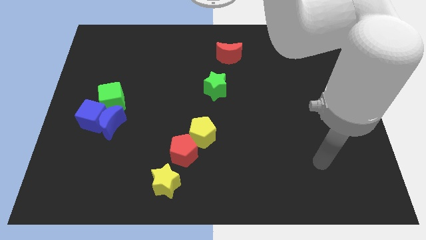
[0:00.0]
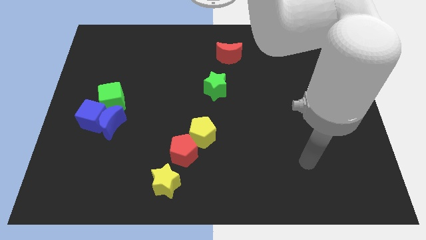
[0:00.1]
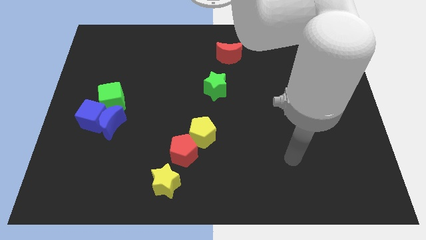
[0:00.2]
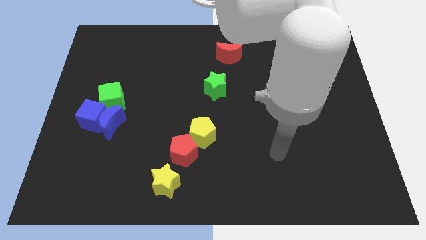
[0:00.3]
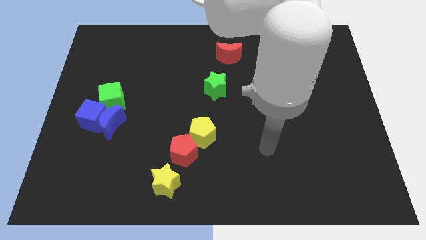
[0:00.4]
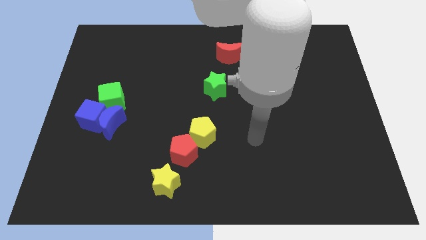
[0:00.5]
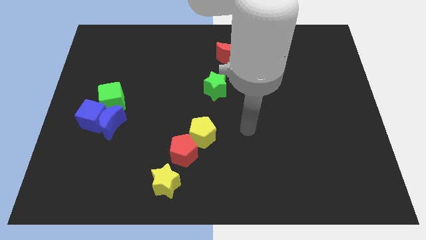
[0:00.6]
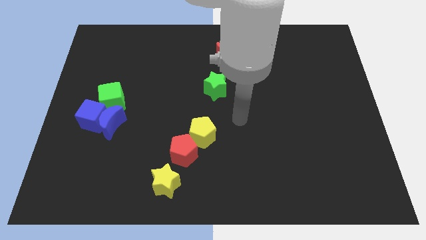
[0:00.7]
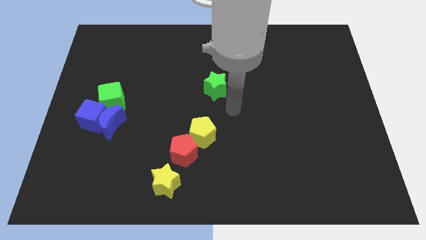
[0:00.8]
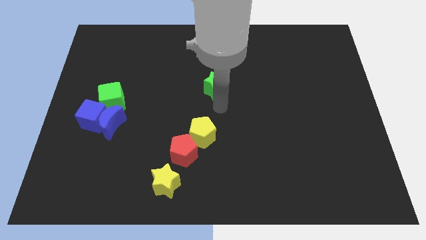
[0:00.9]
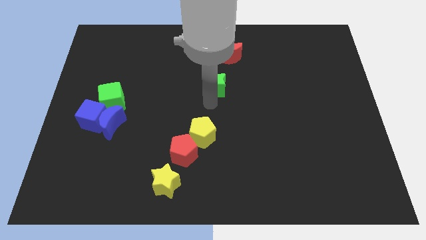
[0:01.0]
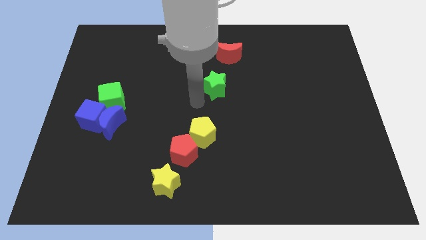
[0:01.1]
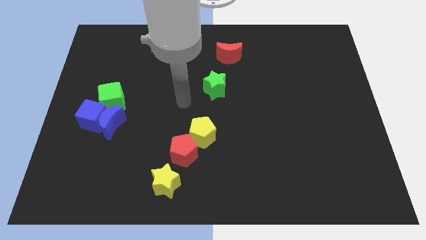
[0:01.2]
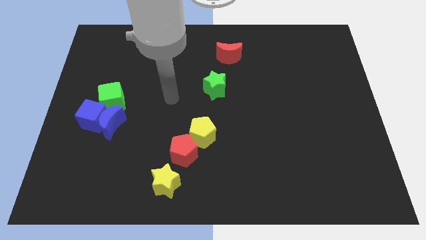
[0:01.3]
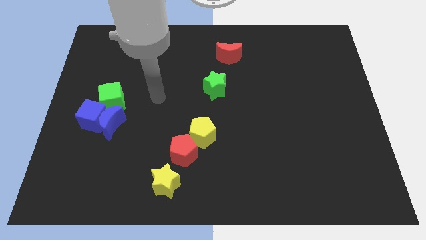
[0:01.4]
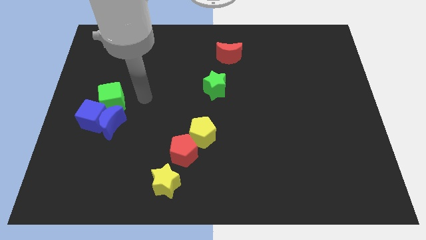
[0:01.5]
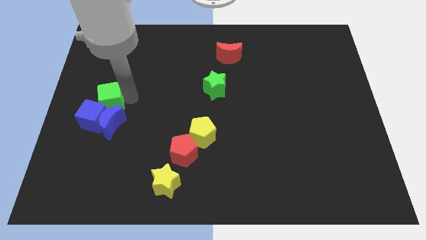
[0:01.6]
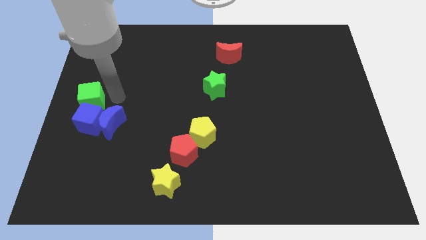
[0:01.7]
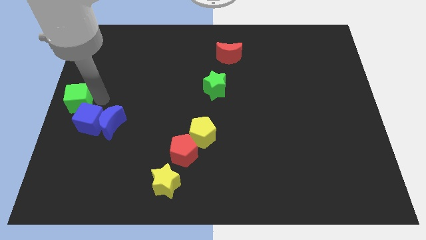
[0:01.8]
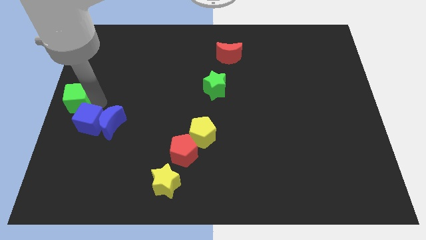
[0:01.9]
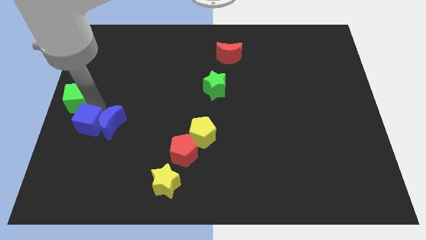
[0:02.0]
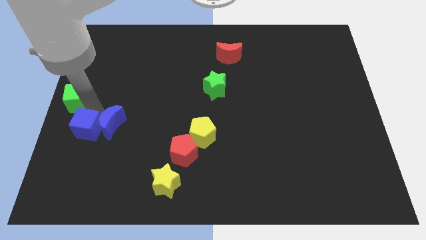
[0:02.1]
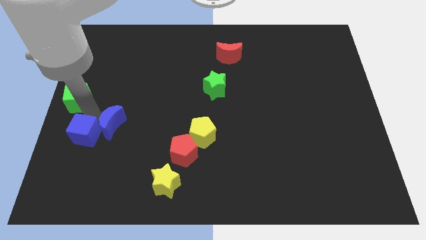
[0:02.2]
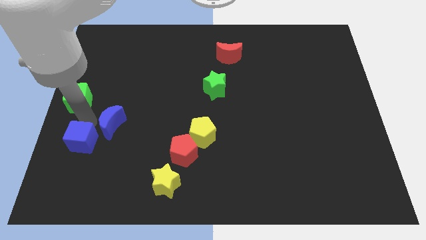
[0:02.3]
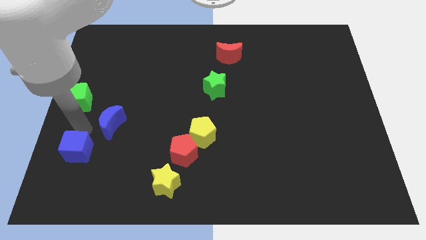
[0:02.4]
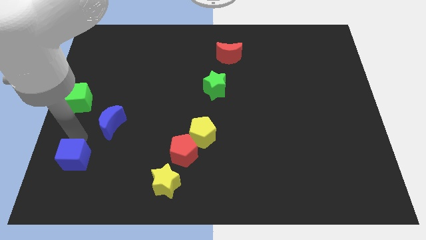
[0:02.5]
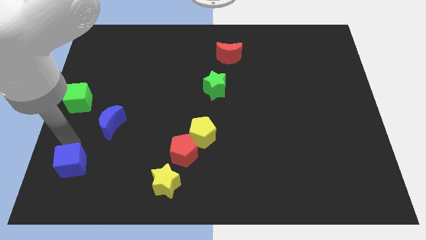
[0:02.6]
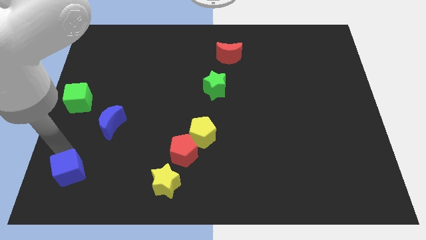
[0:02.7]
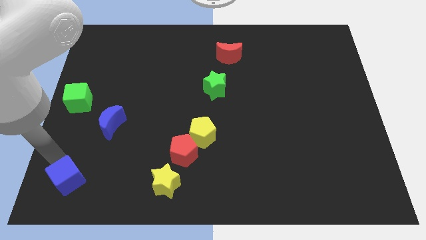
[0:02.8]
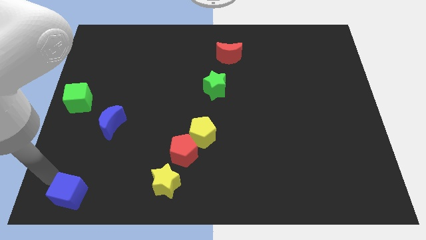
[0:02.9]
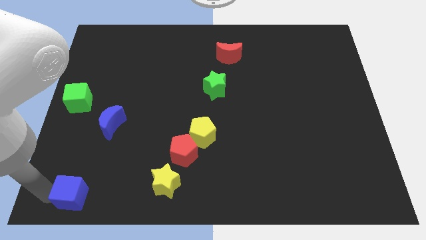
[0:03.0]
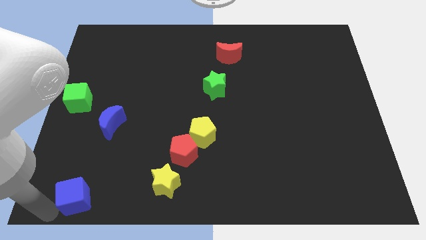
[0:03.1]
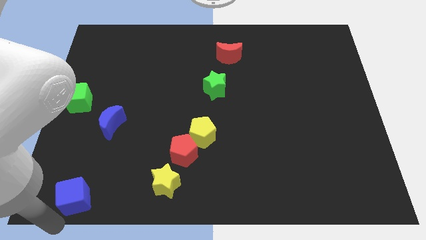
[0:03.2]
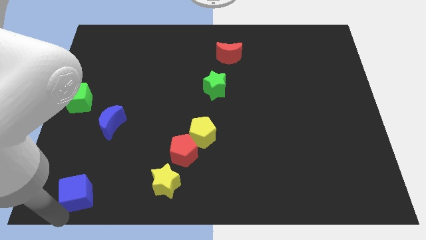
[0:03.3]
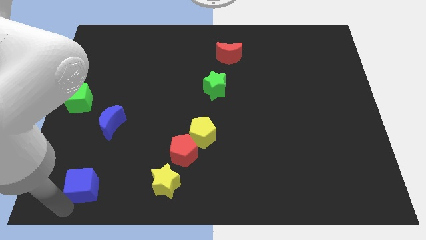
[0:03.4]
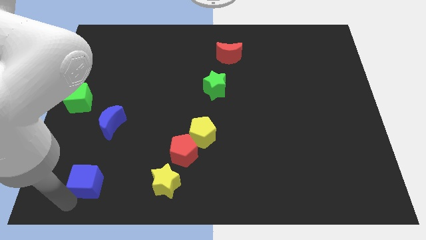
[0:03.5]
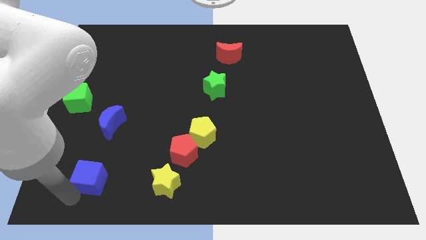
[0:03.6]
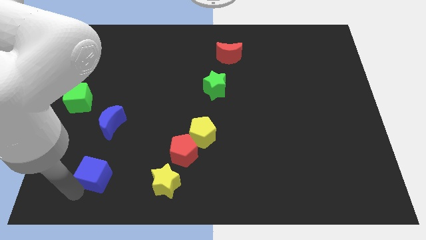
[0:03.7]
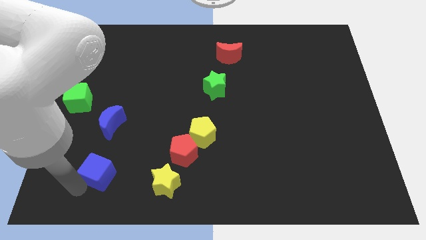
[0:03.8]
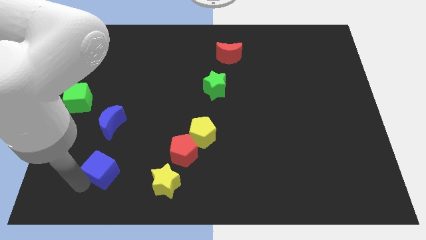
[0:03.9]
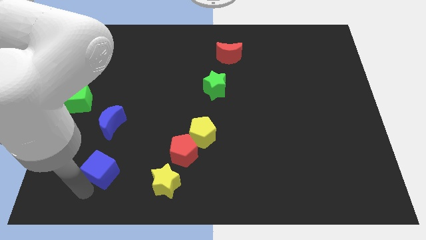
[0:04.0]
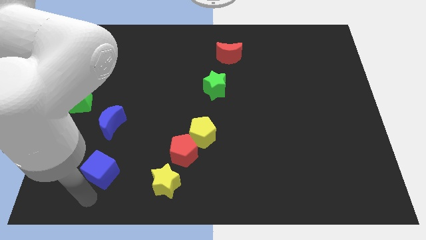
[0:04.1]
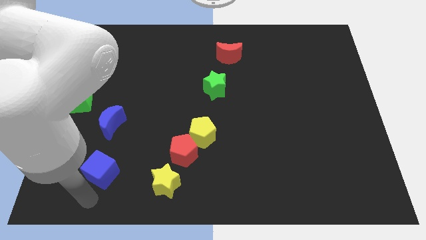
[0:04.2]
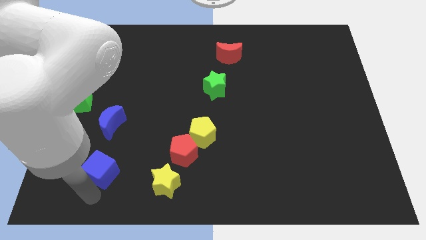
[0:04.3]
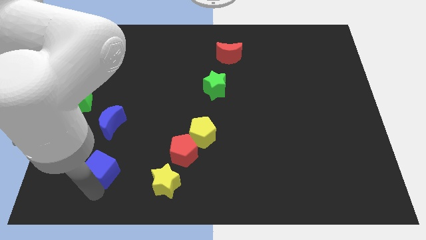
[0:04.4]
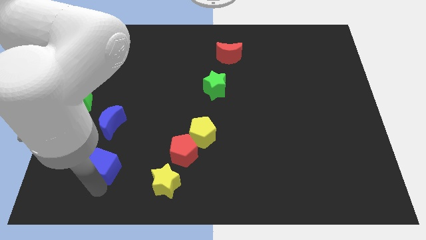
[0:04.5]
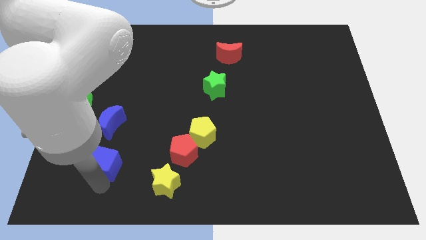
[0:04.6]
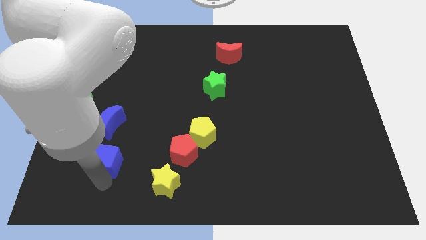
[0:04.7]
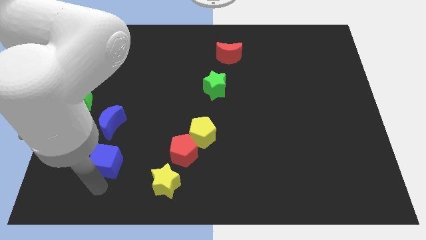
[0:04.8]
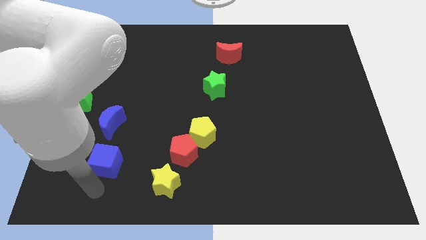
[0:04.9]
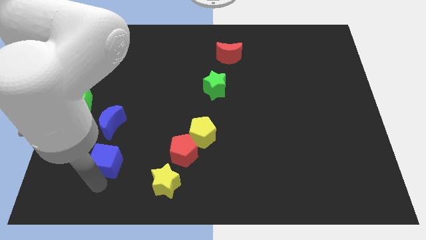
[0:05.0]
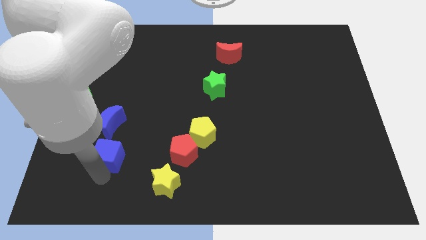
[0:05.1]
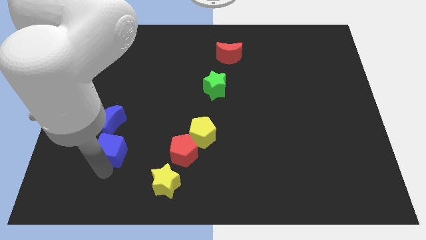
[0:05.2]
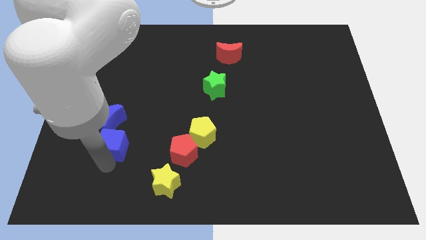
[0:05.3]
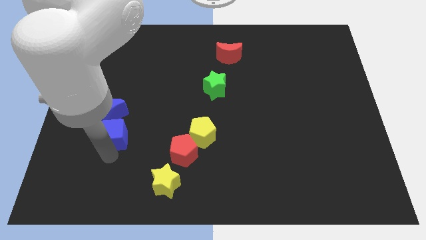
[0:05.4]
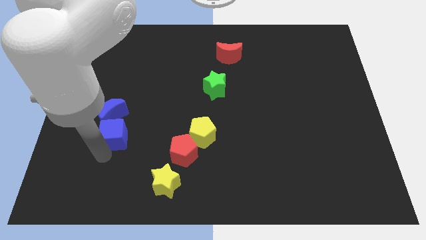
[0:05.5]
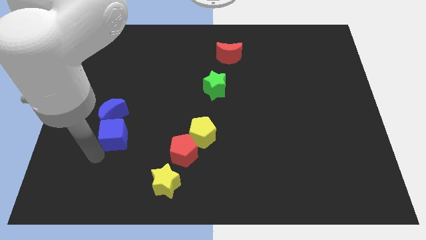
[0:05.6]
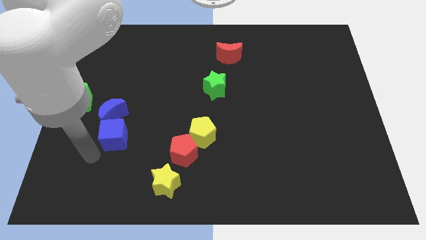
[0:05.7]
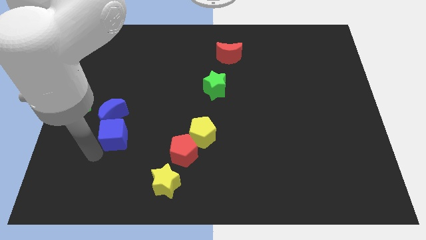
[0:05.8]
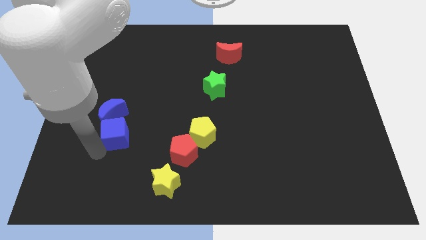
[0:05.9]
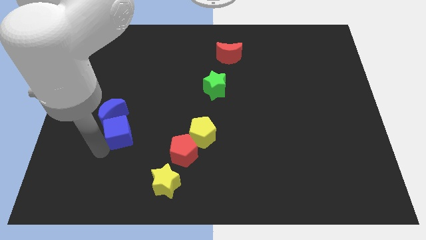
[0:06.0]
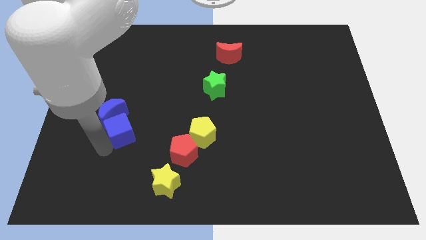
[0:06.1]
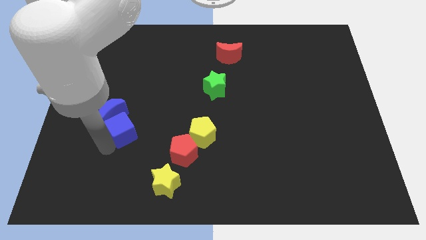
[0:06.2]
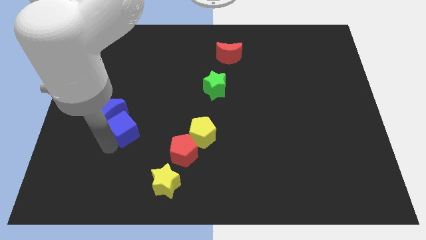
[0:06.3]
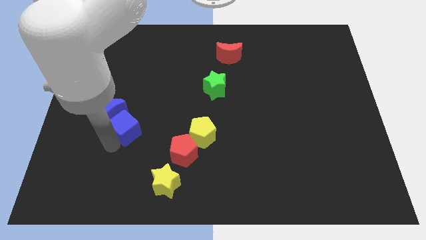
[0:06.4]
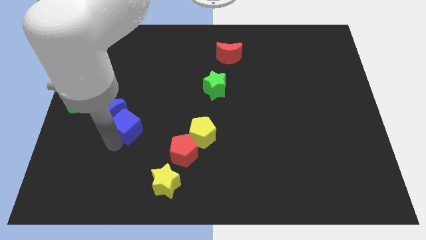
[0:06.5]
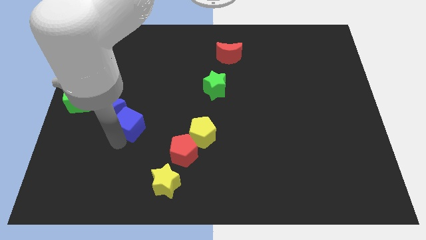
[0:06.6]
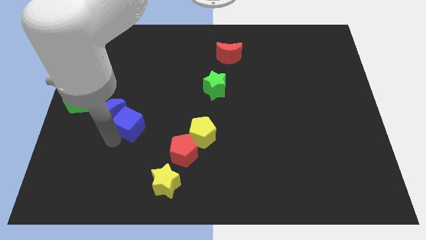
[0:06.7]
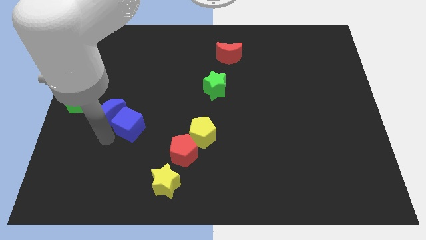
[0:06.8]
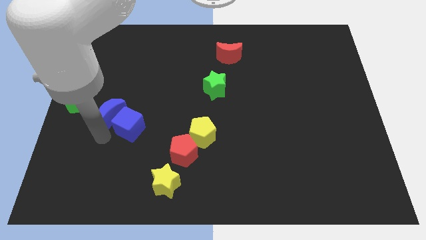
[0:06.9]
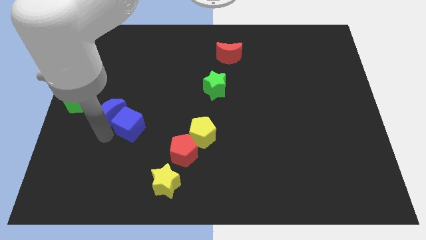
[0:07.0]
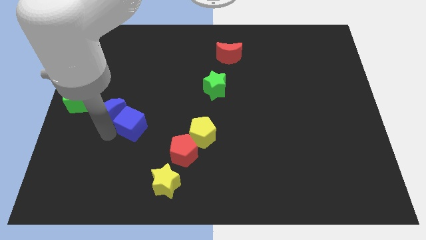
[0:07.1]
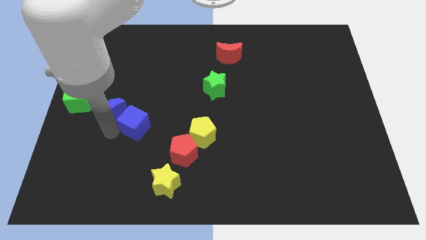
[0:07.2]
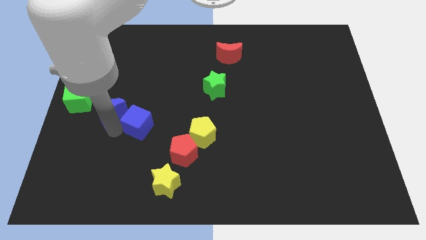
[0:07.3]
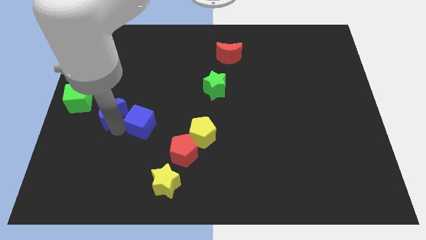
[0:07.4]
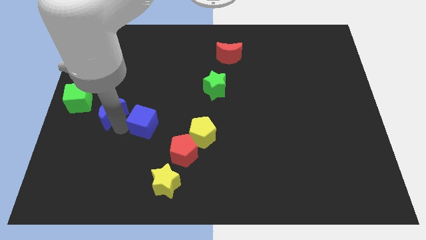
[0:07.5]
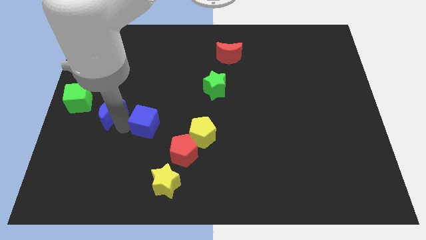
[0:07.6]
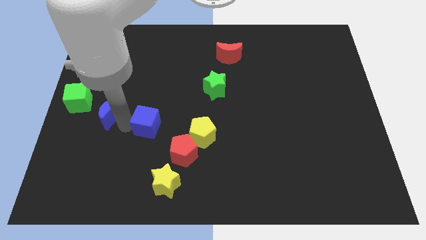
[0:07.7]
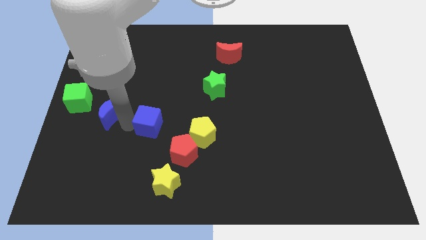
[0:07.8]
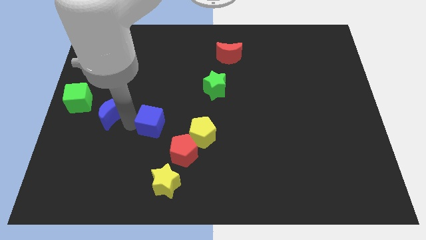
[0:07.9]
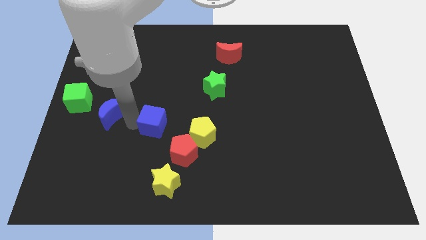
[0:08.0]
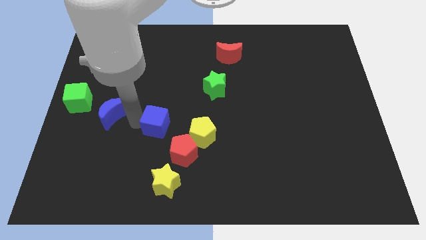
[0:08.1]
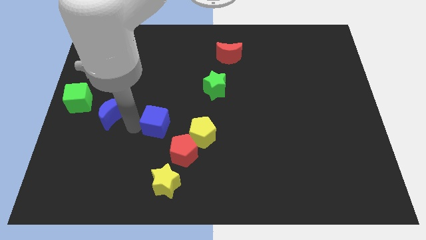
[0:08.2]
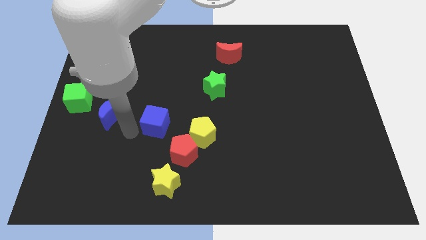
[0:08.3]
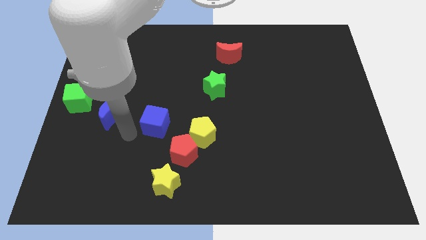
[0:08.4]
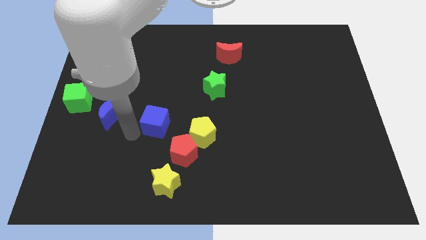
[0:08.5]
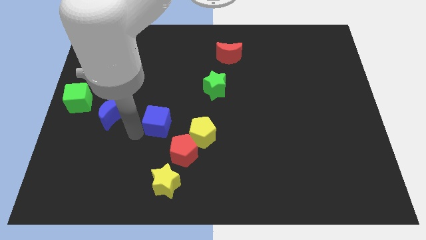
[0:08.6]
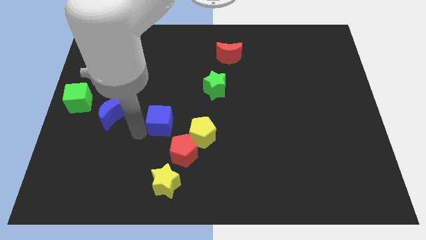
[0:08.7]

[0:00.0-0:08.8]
put the blue cube to the top left of the yellow pentagon
